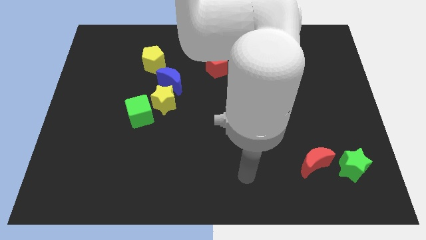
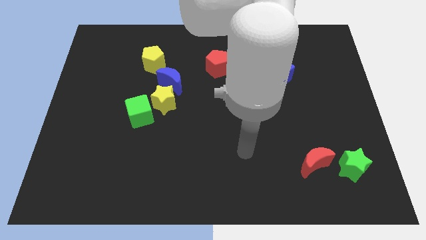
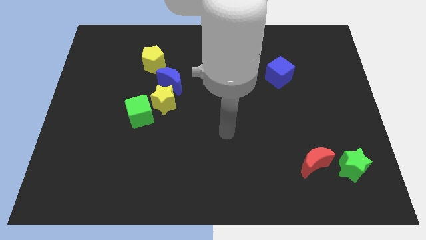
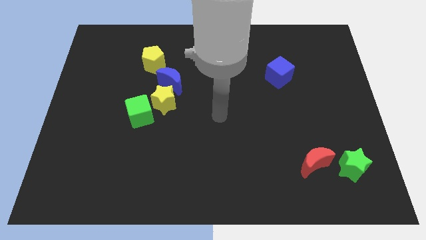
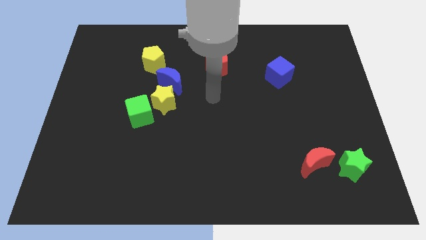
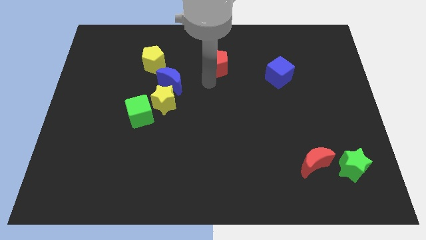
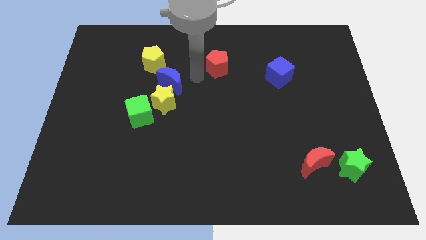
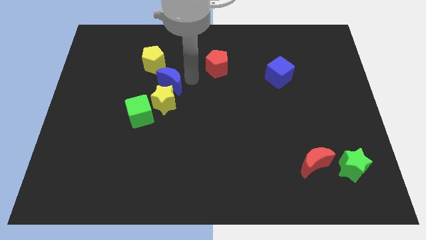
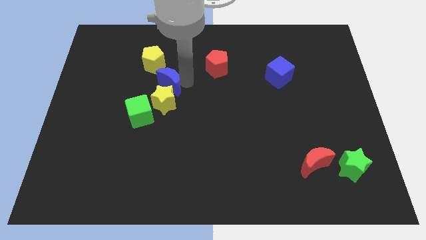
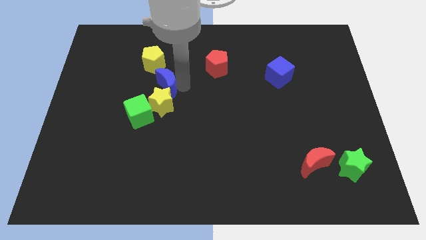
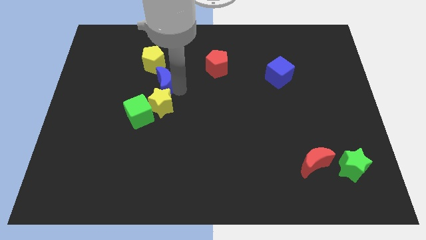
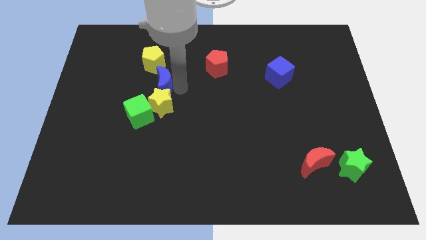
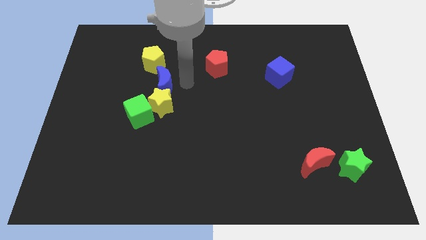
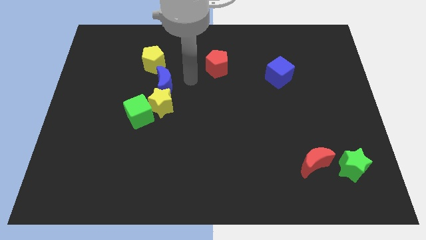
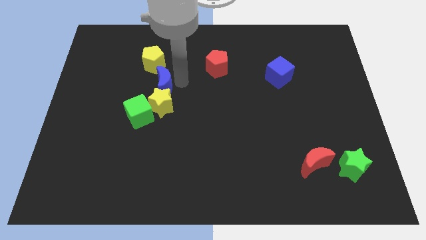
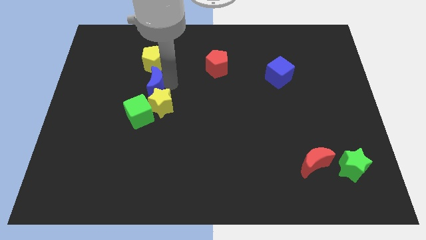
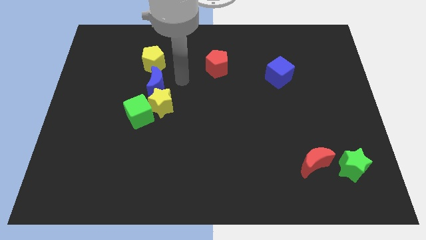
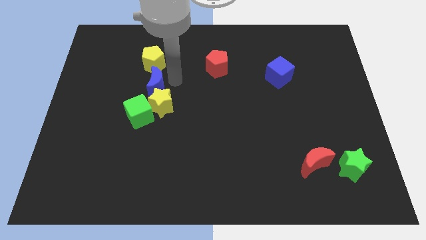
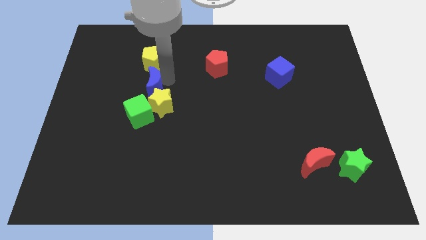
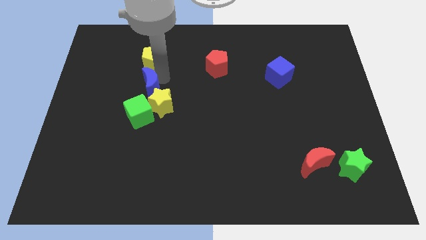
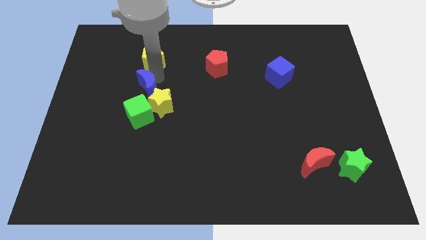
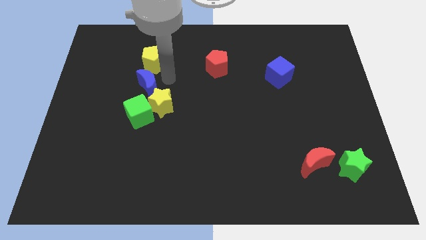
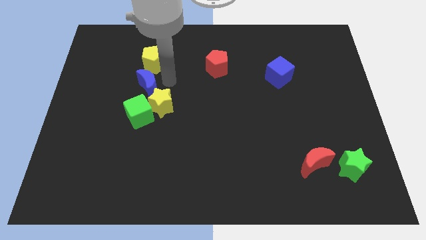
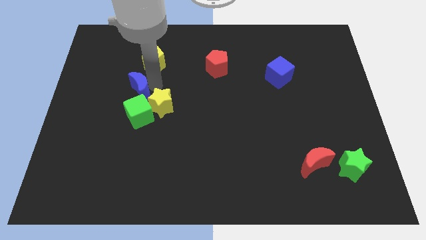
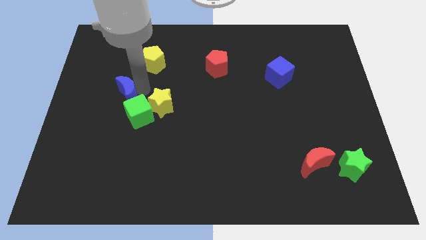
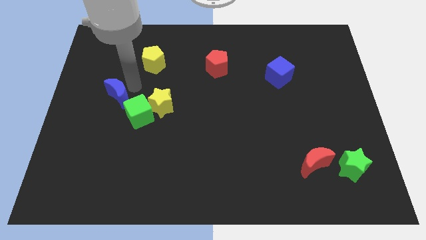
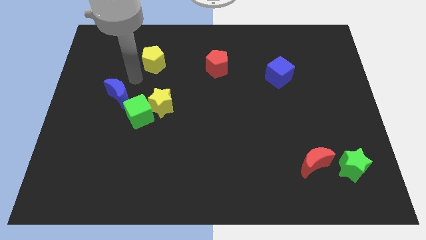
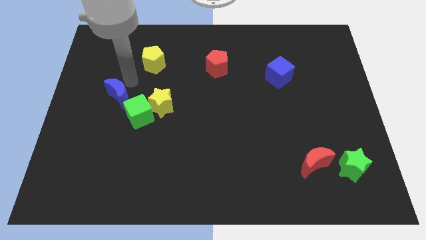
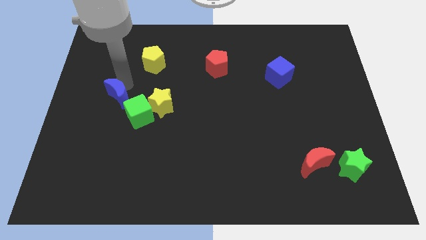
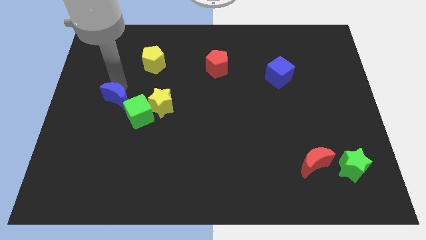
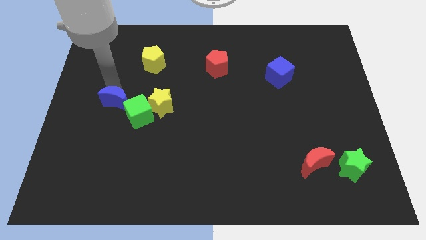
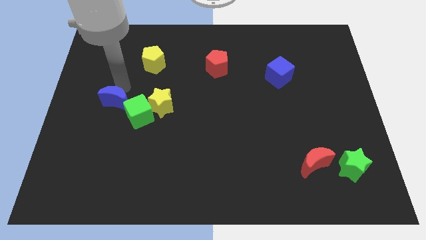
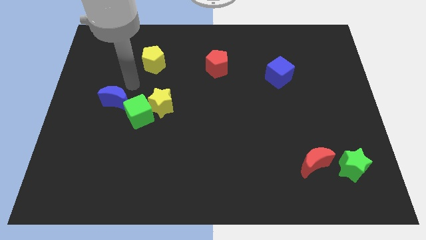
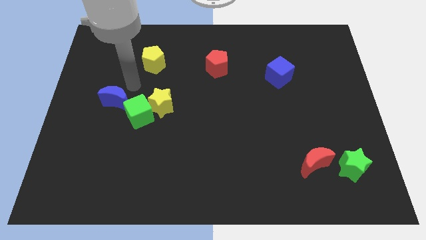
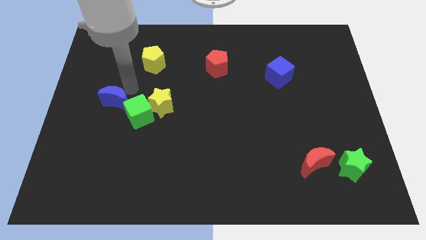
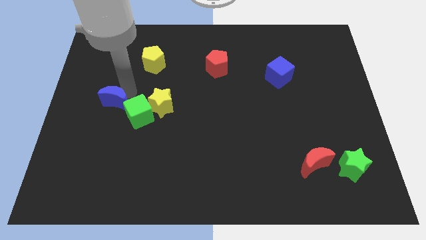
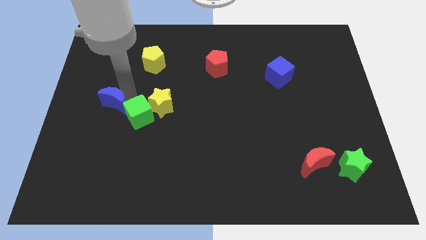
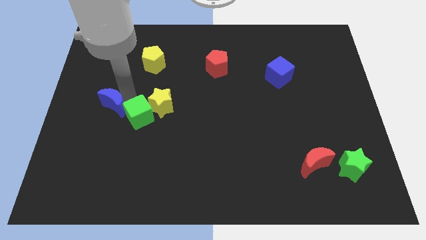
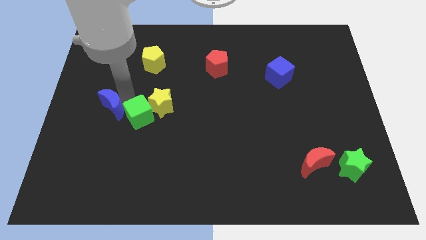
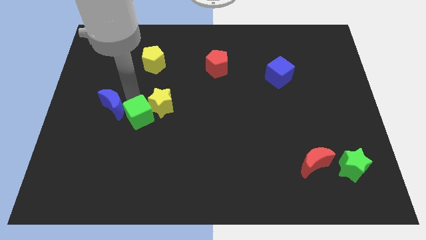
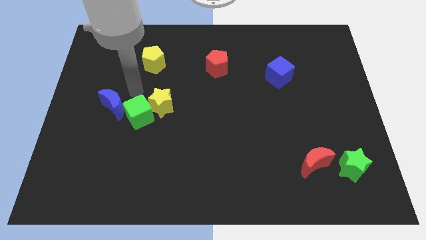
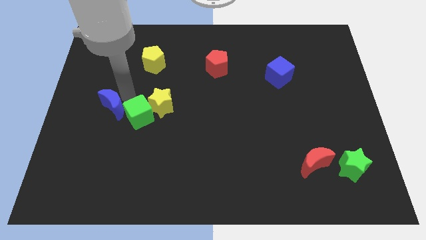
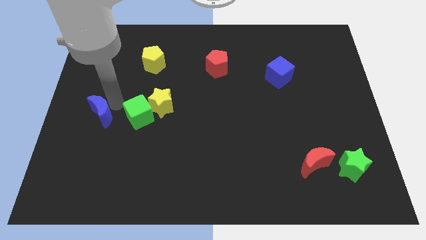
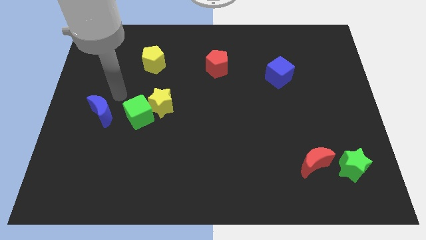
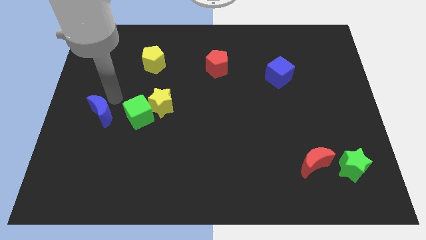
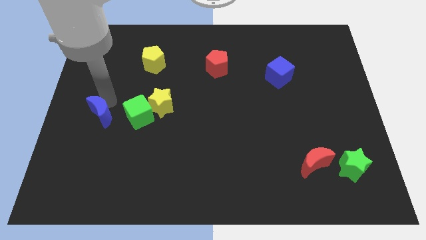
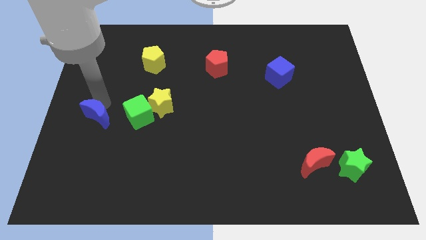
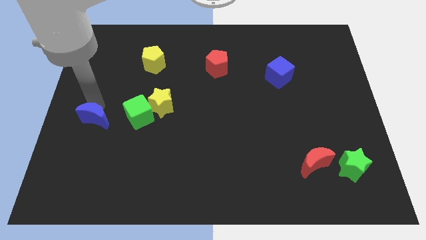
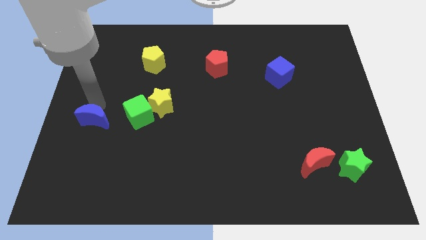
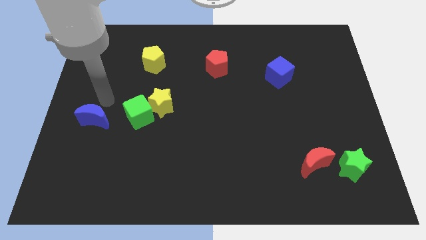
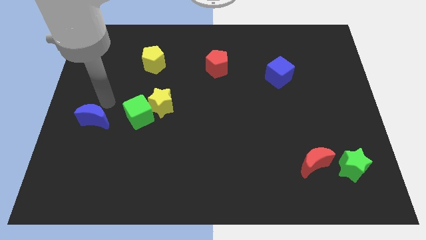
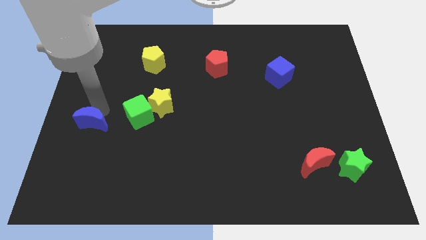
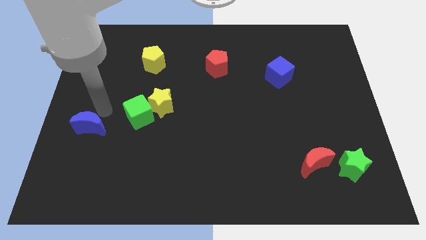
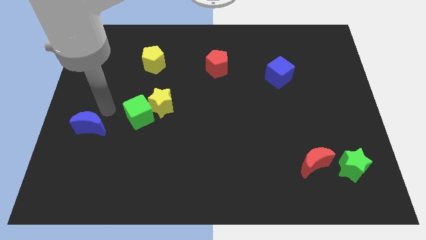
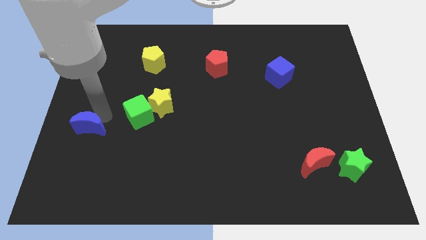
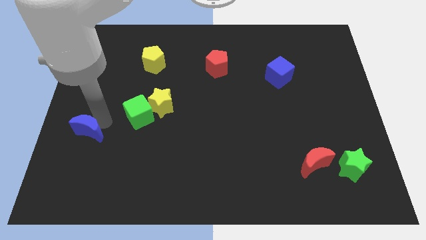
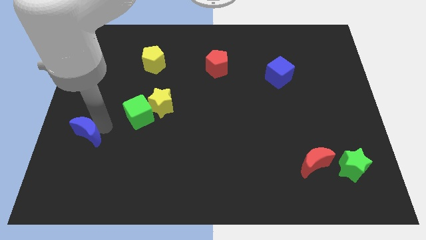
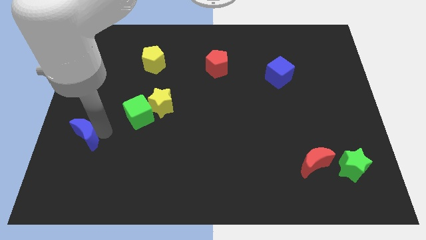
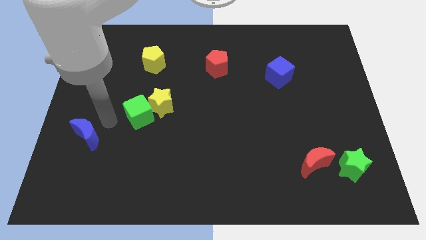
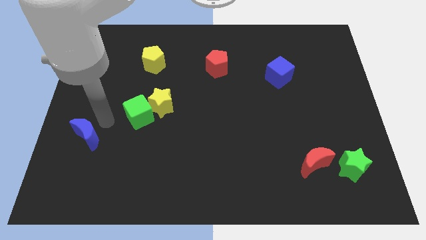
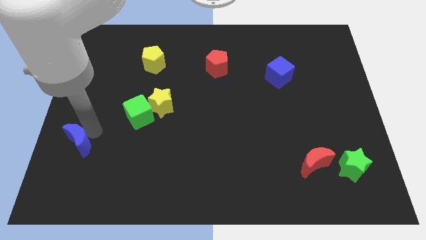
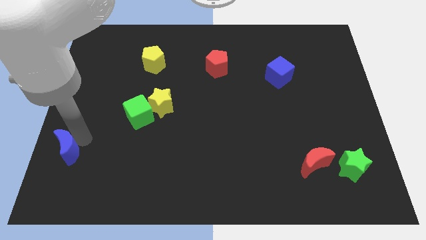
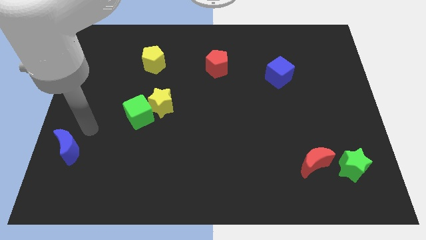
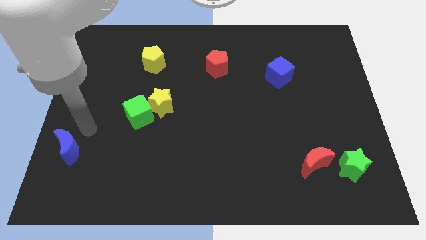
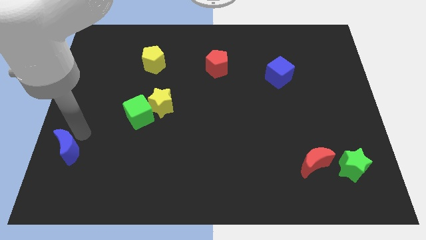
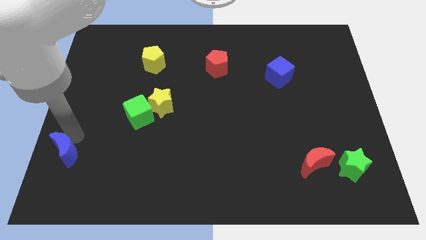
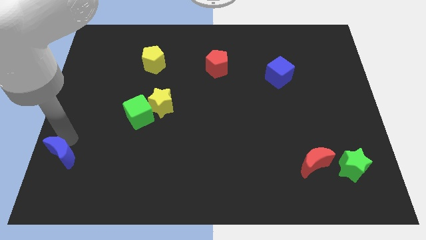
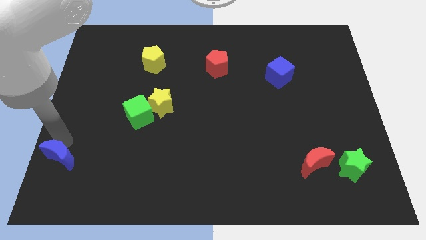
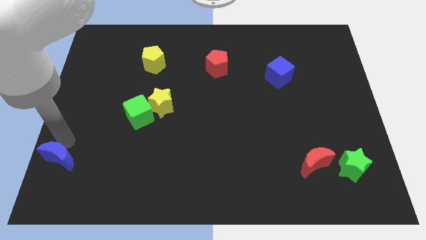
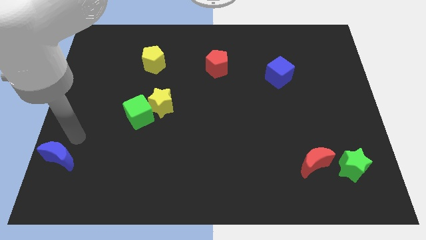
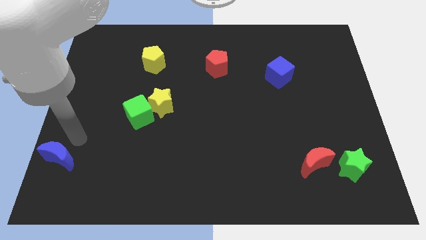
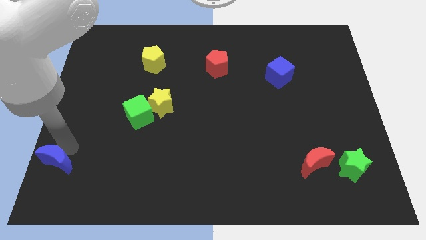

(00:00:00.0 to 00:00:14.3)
slide the blue moon to the bottom left
